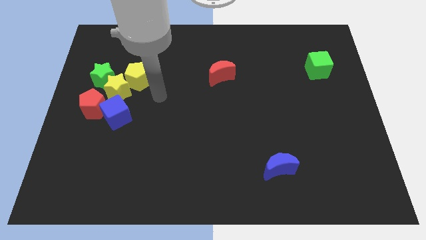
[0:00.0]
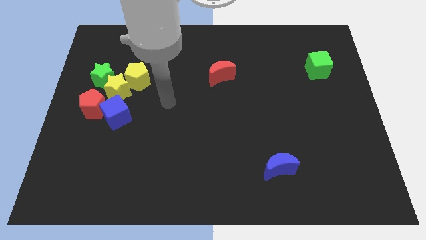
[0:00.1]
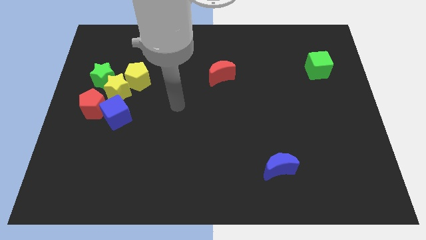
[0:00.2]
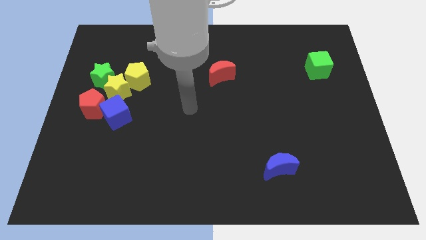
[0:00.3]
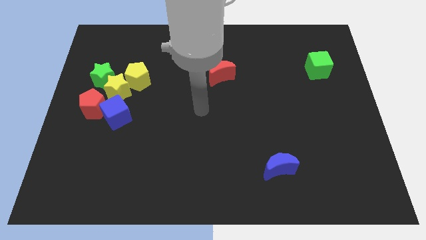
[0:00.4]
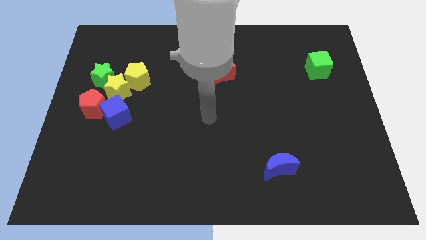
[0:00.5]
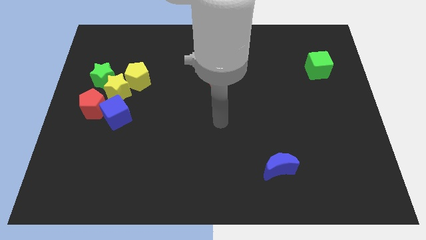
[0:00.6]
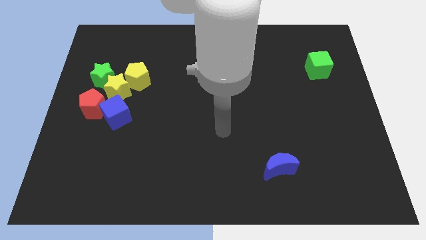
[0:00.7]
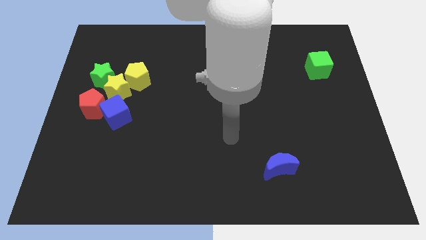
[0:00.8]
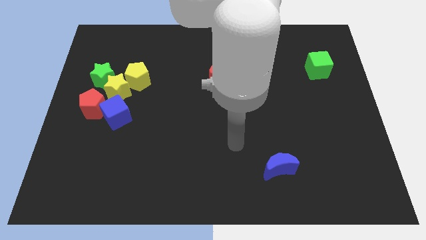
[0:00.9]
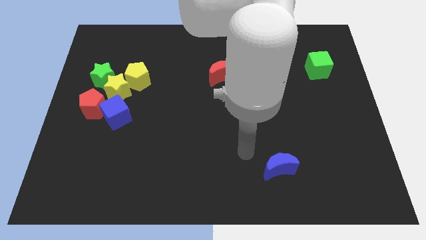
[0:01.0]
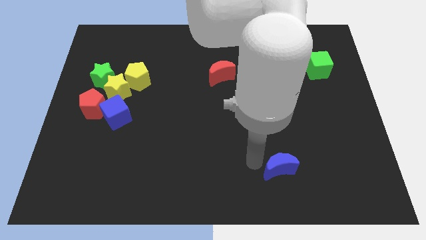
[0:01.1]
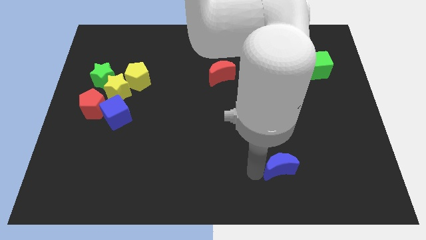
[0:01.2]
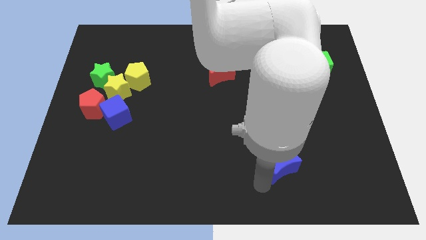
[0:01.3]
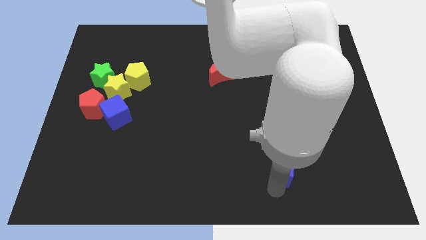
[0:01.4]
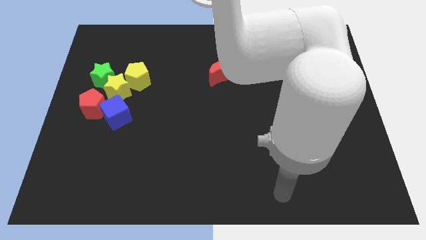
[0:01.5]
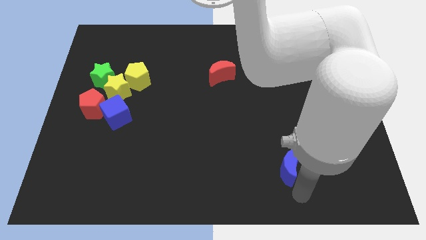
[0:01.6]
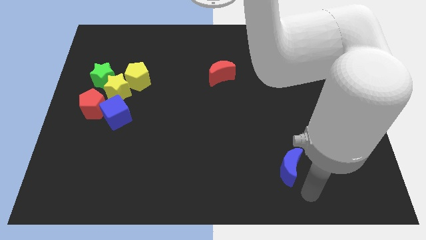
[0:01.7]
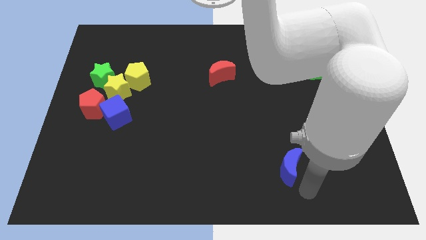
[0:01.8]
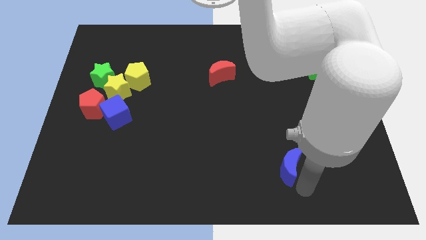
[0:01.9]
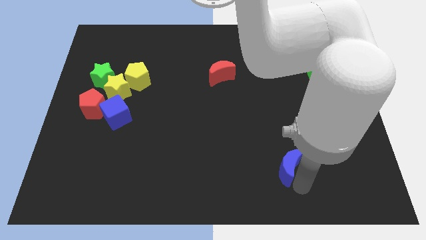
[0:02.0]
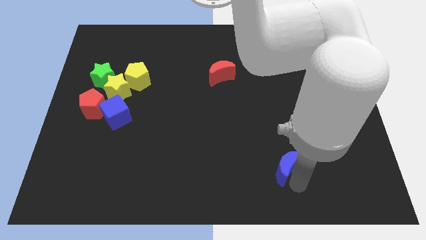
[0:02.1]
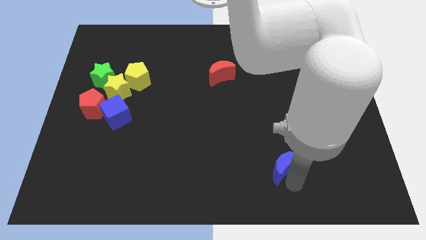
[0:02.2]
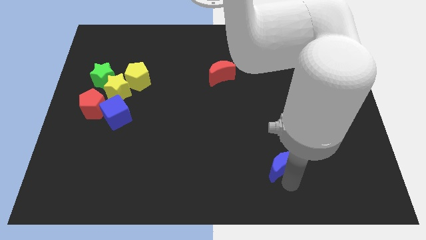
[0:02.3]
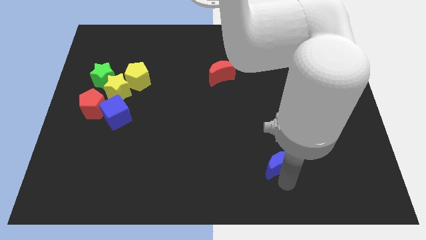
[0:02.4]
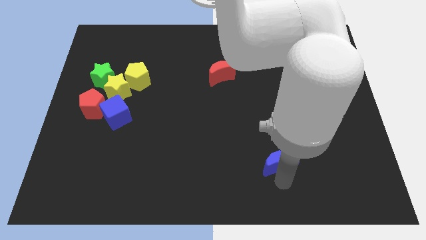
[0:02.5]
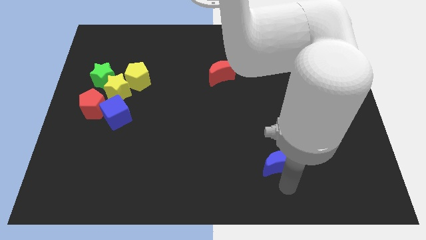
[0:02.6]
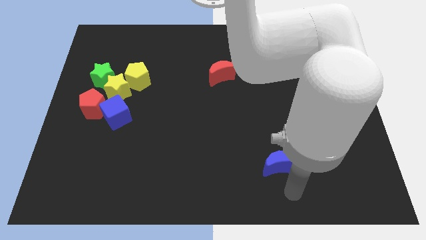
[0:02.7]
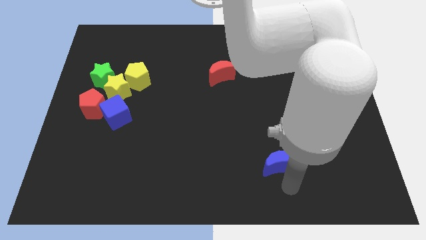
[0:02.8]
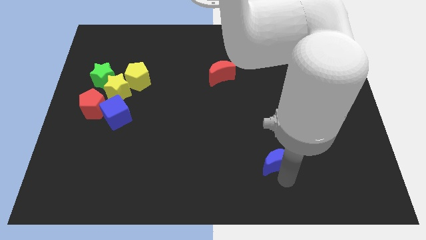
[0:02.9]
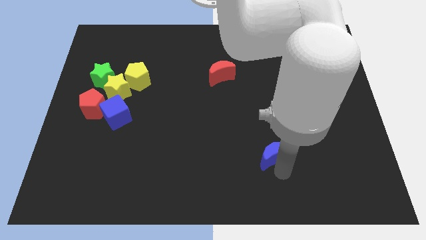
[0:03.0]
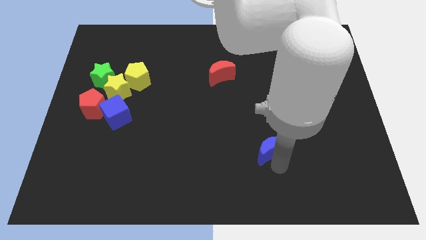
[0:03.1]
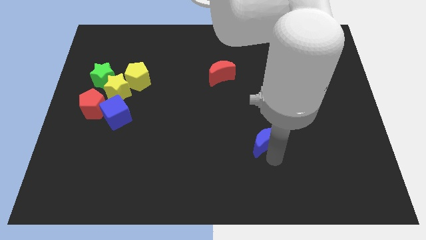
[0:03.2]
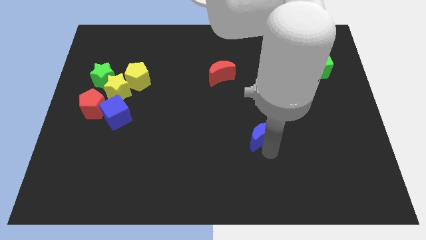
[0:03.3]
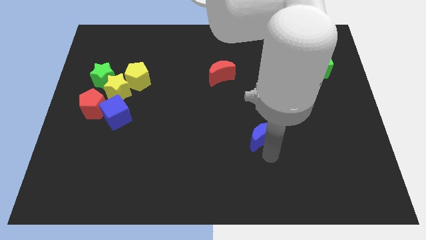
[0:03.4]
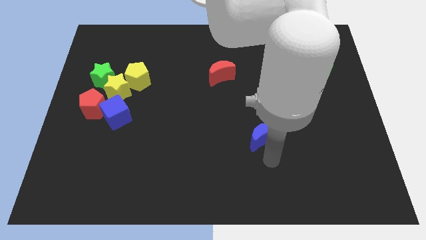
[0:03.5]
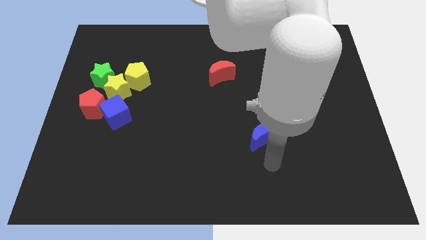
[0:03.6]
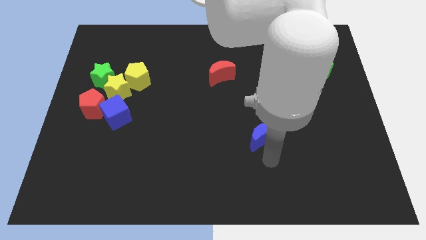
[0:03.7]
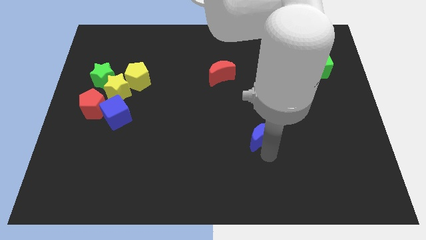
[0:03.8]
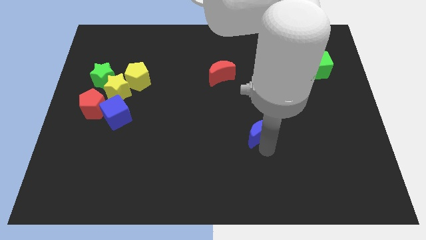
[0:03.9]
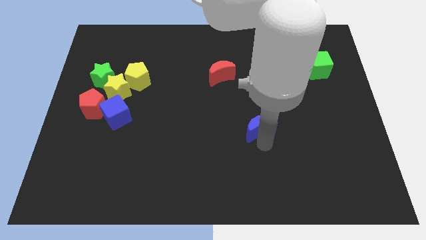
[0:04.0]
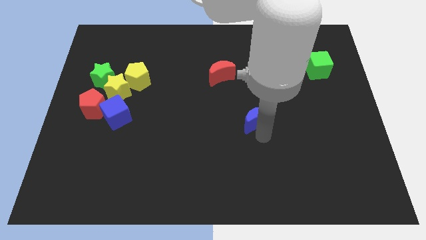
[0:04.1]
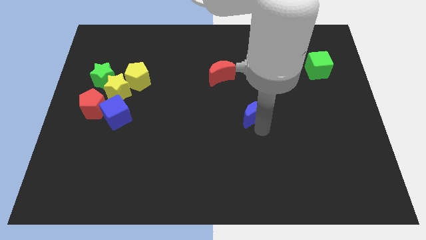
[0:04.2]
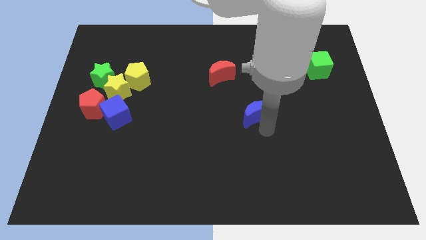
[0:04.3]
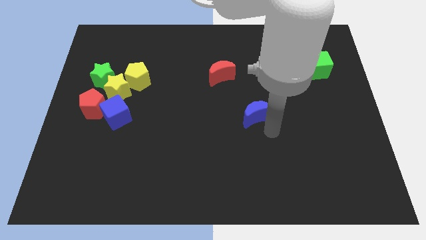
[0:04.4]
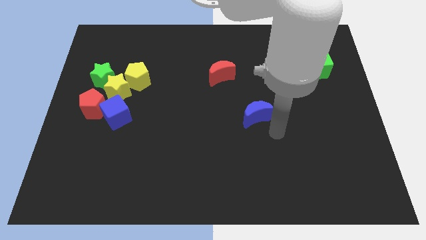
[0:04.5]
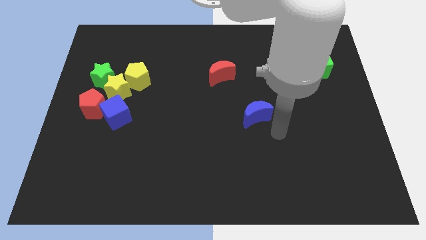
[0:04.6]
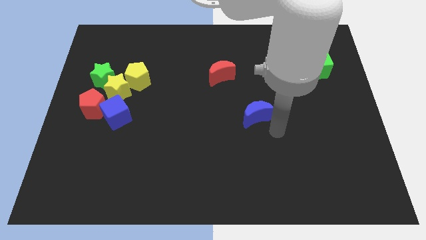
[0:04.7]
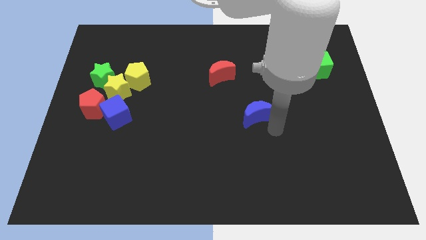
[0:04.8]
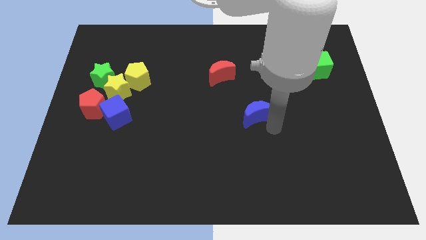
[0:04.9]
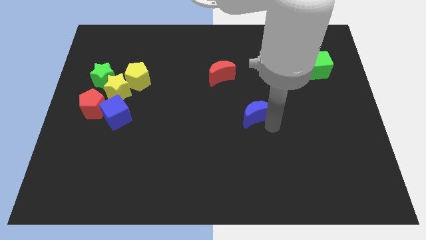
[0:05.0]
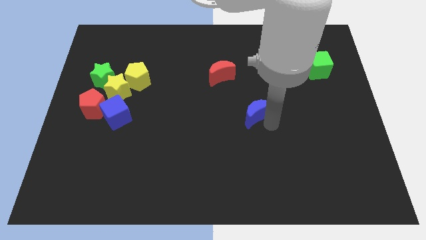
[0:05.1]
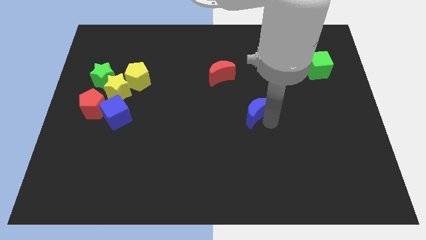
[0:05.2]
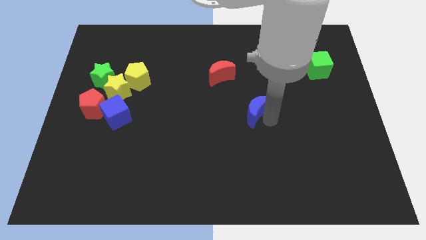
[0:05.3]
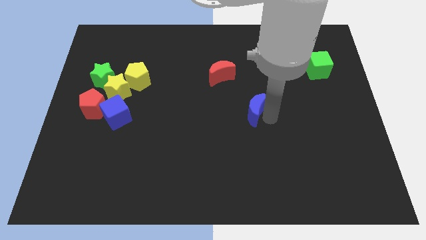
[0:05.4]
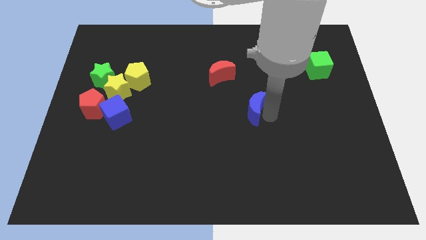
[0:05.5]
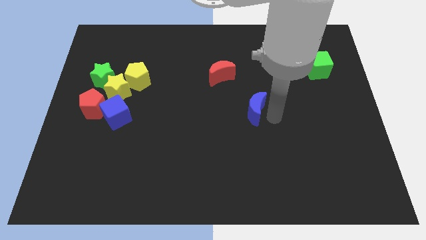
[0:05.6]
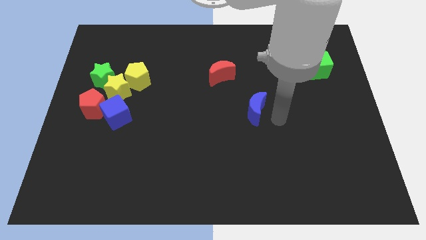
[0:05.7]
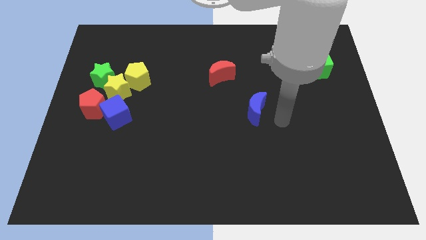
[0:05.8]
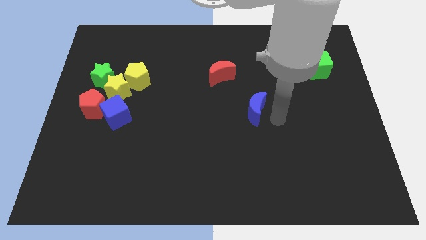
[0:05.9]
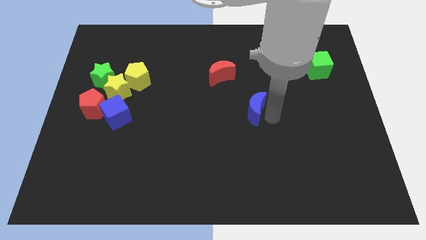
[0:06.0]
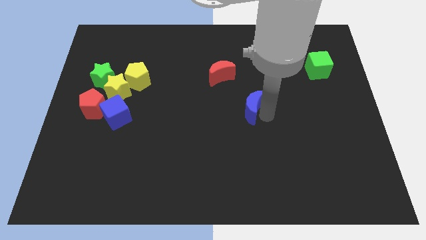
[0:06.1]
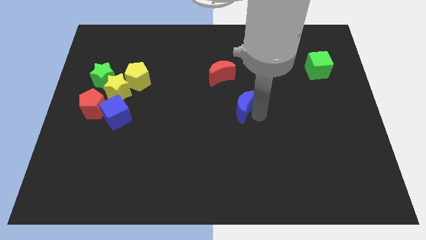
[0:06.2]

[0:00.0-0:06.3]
slide the blue moon to the bottom right side of the red moon
